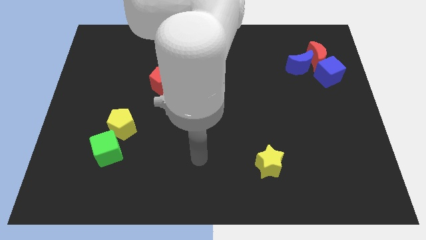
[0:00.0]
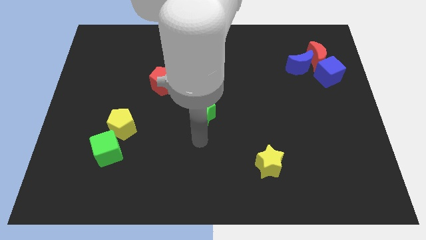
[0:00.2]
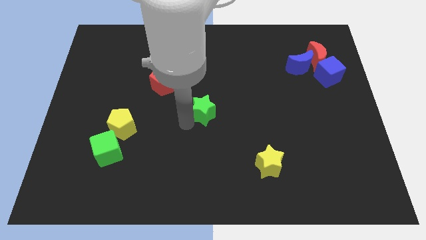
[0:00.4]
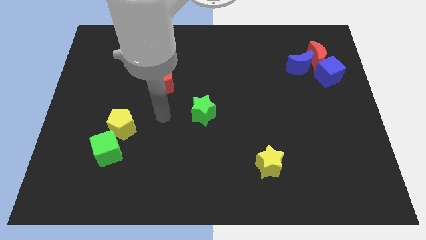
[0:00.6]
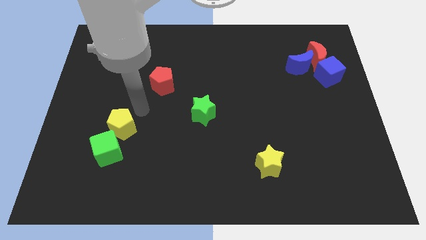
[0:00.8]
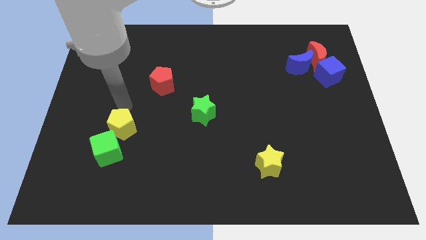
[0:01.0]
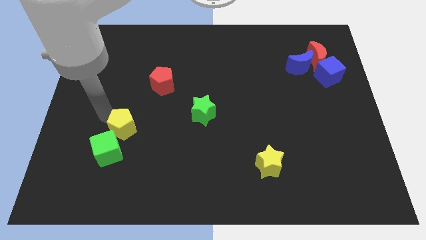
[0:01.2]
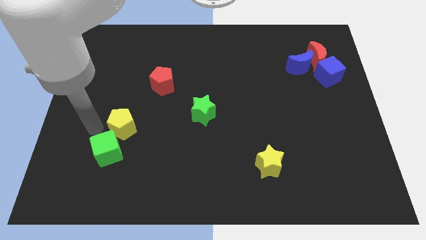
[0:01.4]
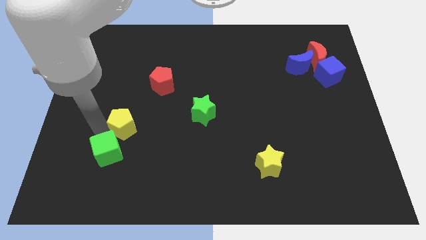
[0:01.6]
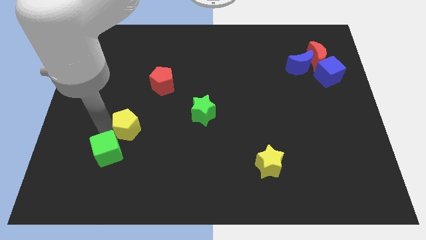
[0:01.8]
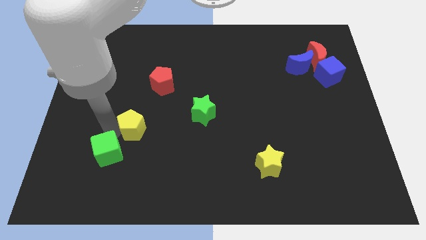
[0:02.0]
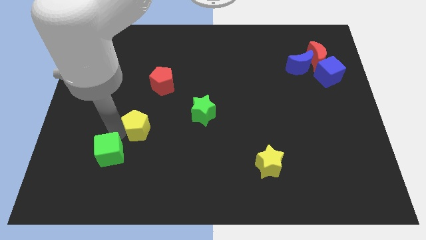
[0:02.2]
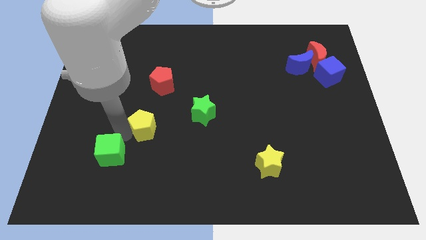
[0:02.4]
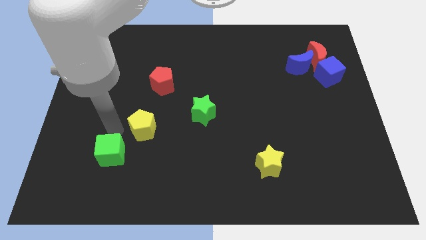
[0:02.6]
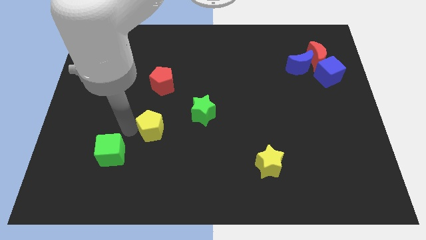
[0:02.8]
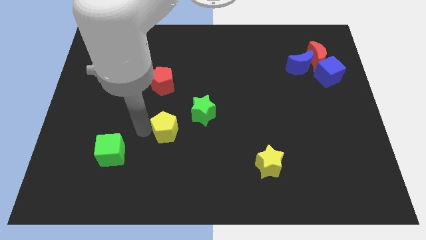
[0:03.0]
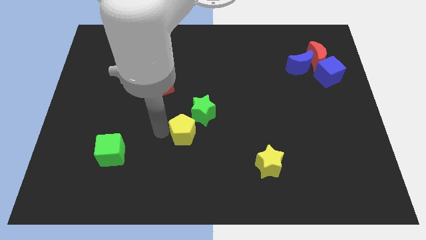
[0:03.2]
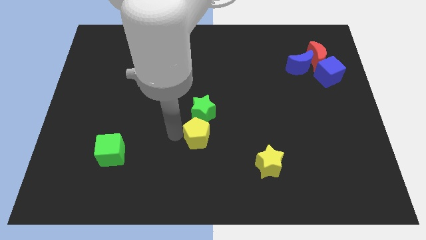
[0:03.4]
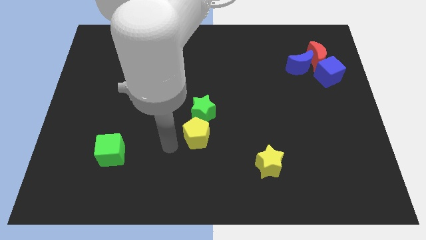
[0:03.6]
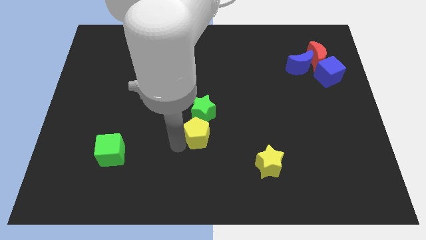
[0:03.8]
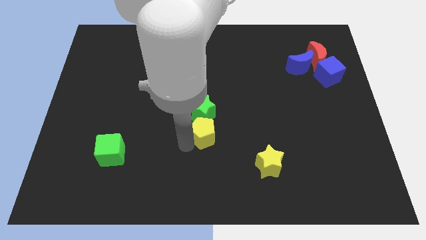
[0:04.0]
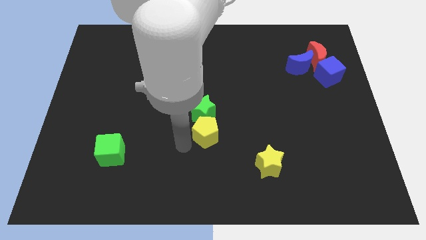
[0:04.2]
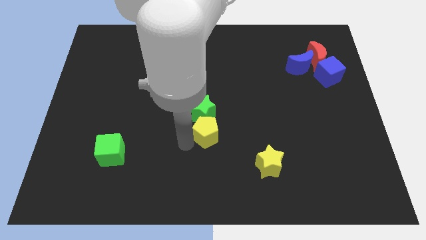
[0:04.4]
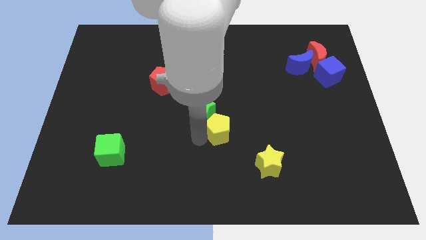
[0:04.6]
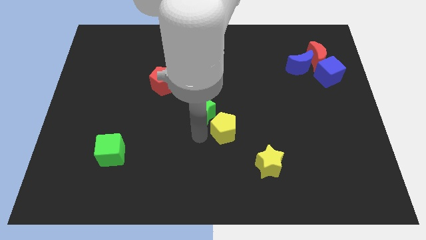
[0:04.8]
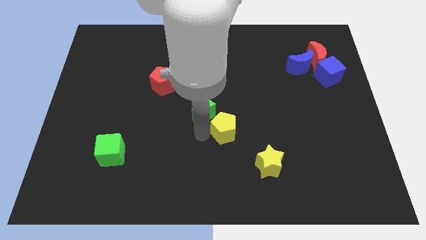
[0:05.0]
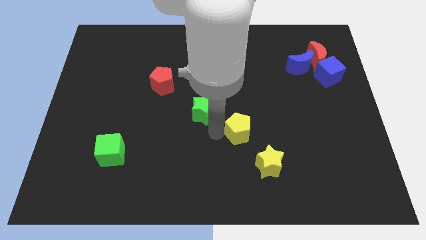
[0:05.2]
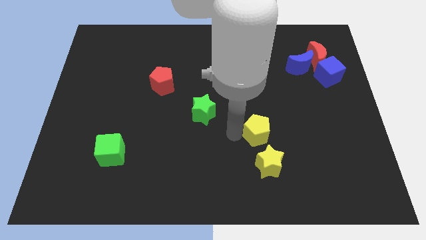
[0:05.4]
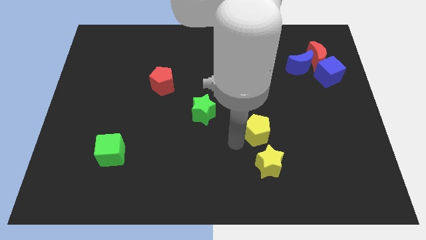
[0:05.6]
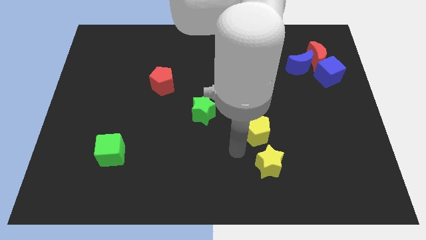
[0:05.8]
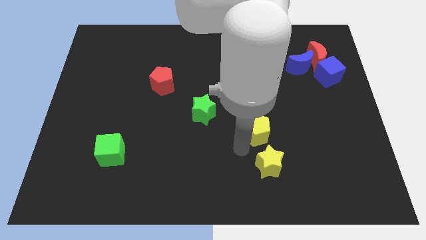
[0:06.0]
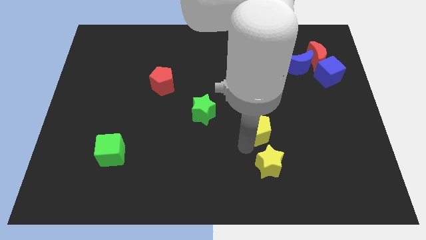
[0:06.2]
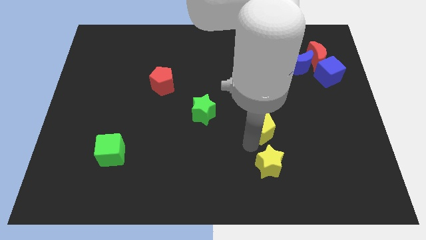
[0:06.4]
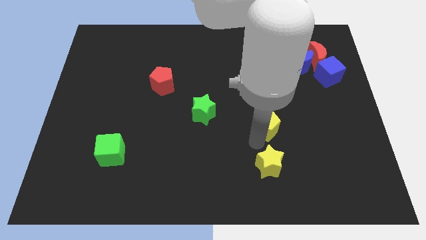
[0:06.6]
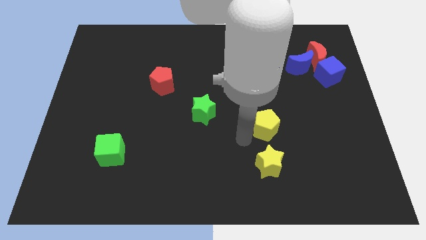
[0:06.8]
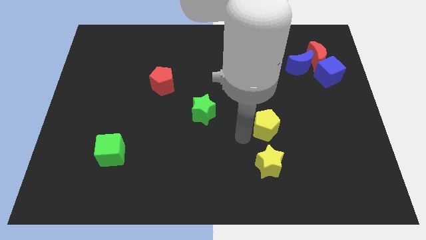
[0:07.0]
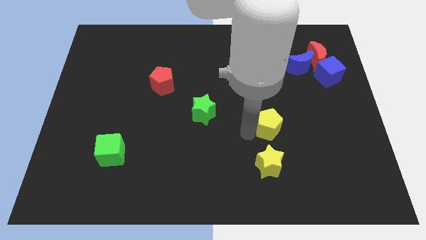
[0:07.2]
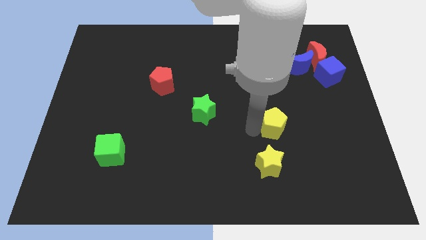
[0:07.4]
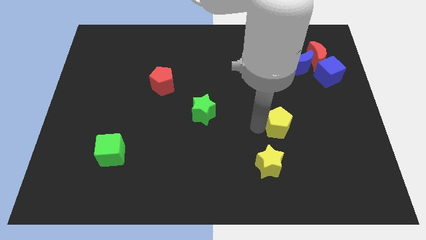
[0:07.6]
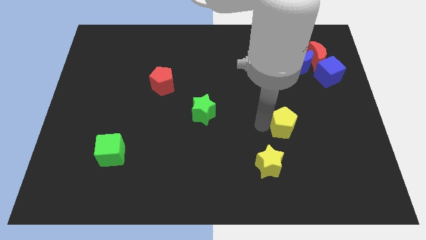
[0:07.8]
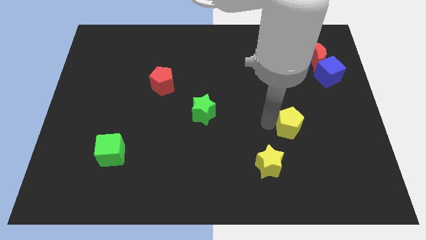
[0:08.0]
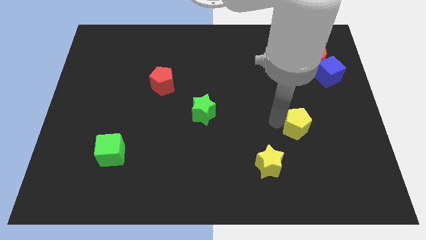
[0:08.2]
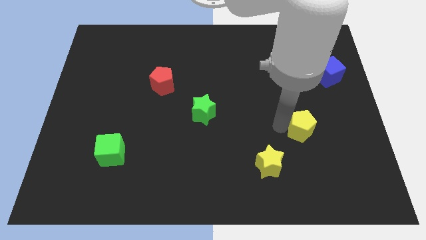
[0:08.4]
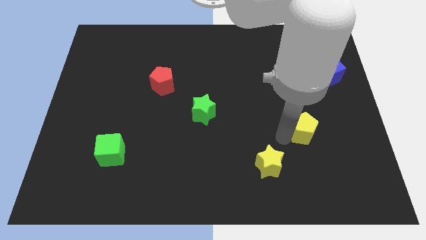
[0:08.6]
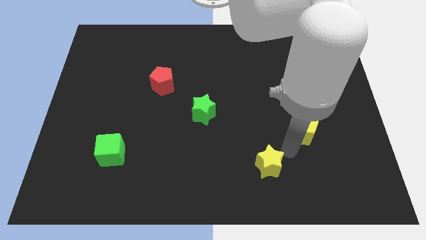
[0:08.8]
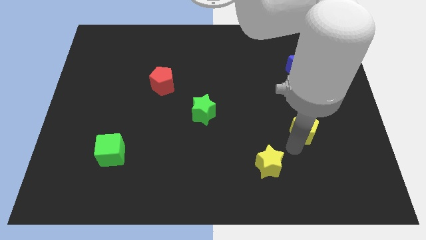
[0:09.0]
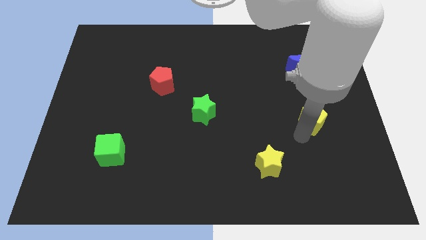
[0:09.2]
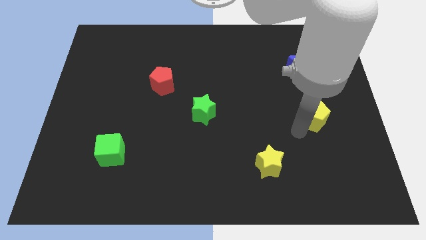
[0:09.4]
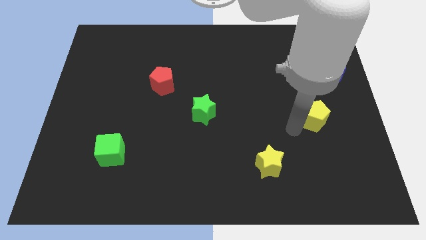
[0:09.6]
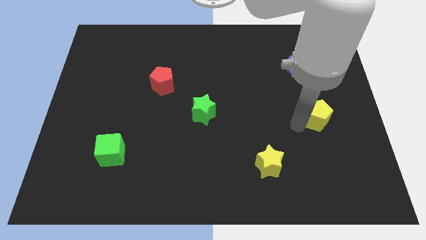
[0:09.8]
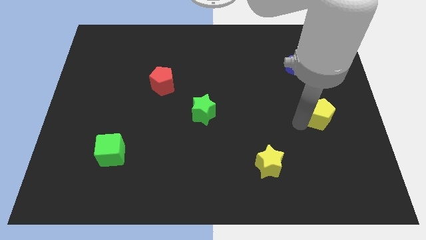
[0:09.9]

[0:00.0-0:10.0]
put the yellow pentagon to the bottom of the blue cube

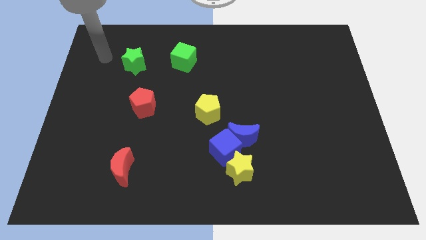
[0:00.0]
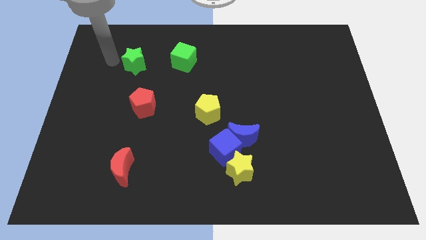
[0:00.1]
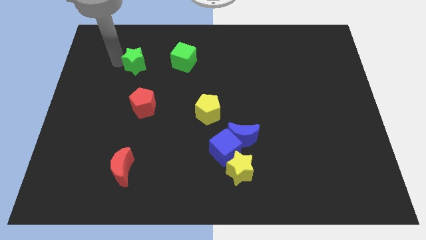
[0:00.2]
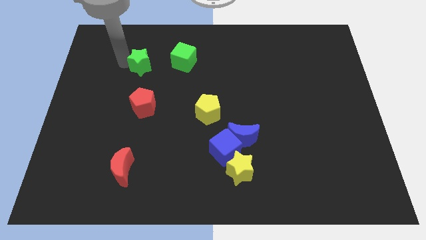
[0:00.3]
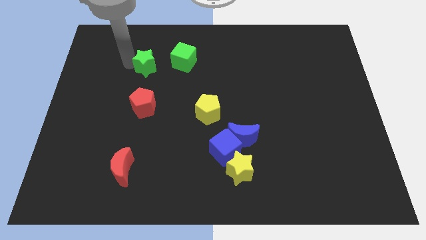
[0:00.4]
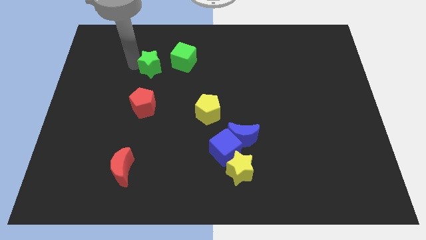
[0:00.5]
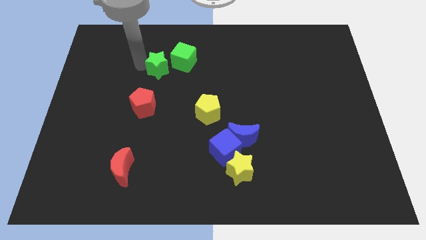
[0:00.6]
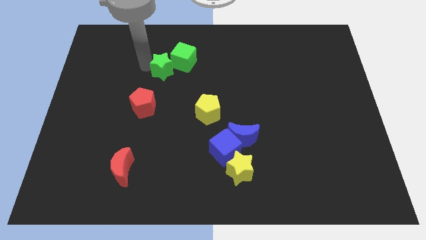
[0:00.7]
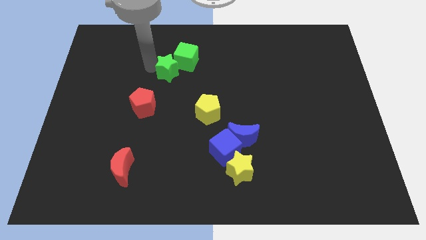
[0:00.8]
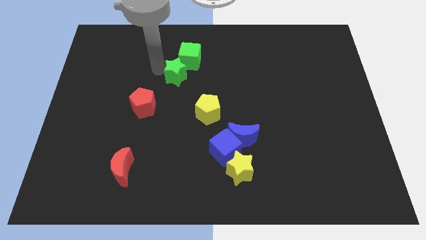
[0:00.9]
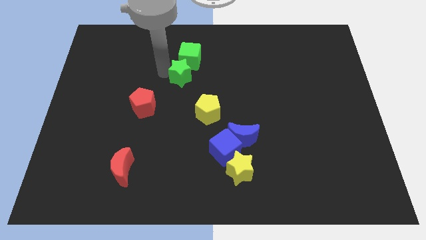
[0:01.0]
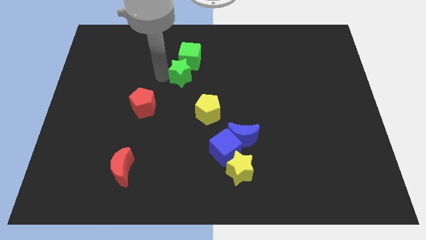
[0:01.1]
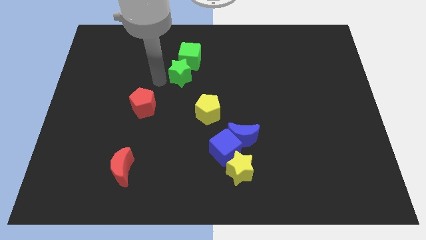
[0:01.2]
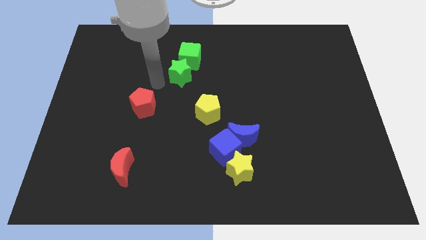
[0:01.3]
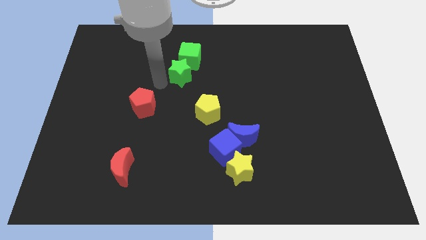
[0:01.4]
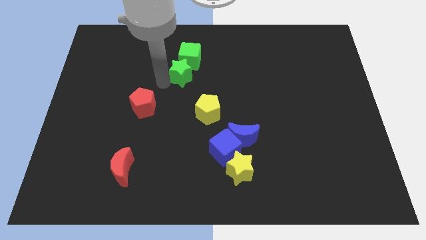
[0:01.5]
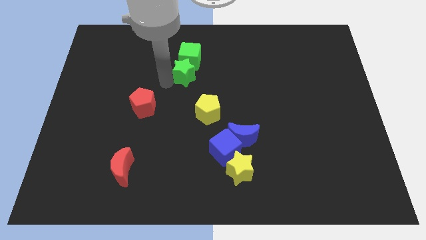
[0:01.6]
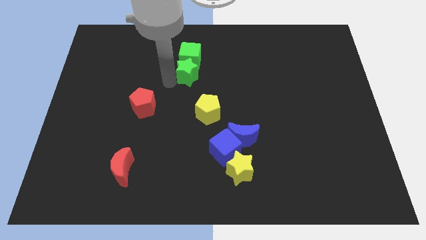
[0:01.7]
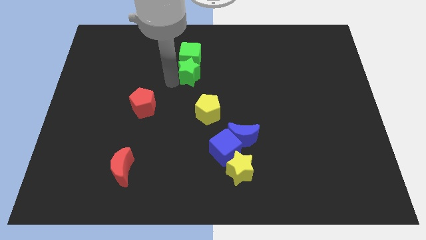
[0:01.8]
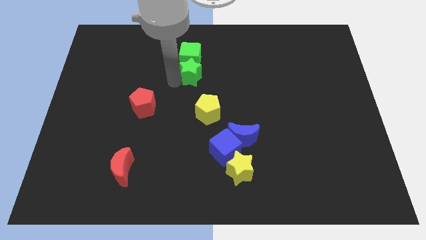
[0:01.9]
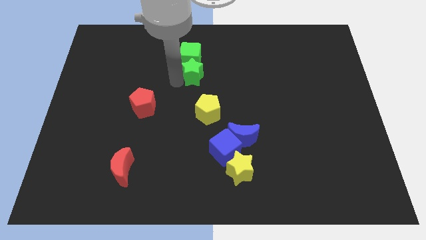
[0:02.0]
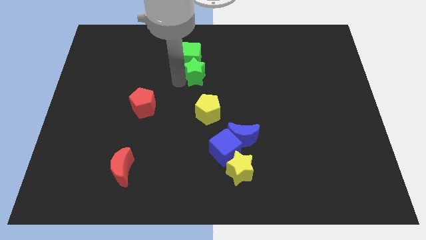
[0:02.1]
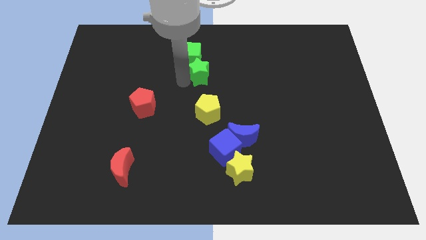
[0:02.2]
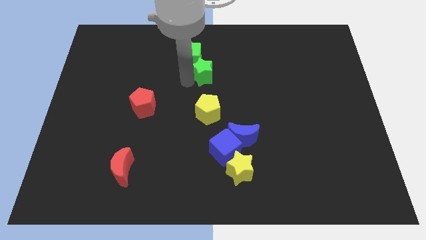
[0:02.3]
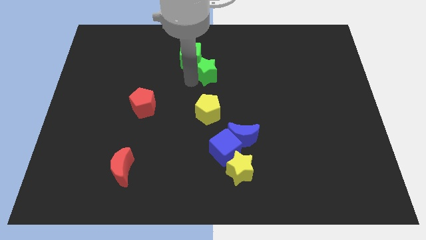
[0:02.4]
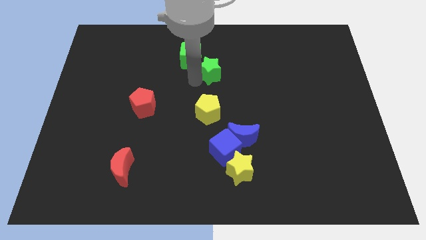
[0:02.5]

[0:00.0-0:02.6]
push the green star just right of the green cube

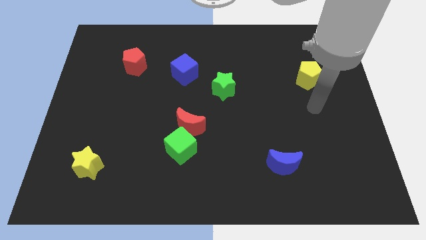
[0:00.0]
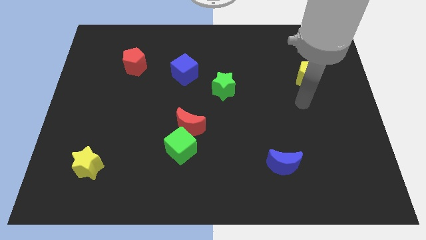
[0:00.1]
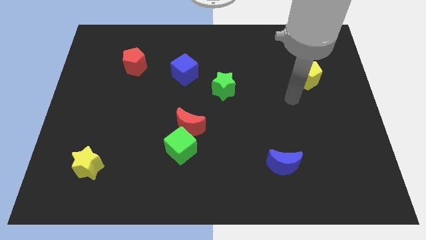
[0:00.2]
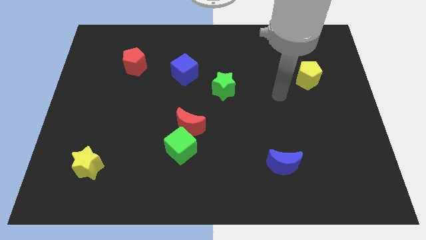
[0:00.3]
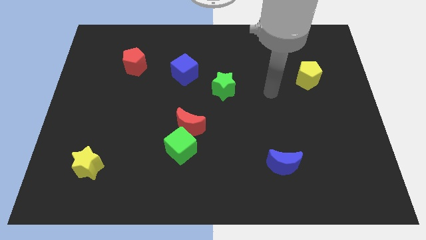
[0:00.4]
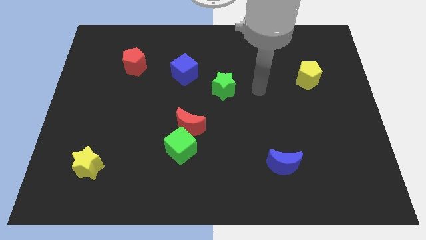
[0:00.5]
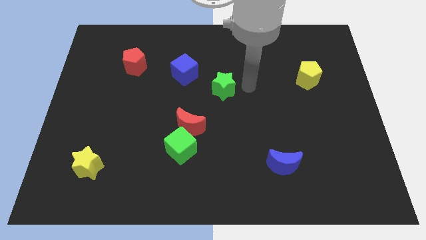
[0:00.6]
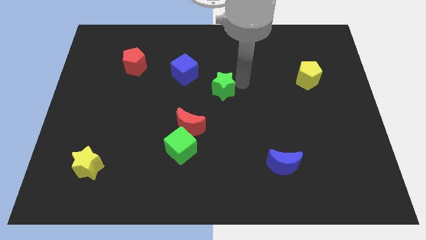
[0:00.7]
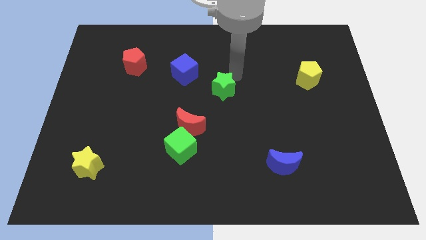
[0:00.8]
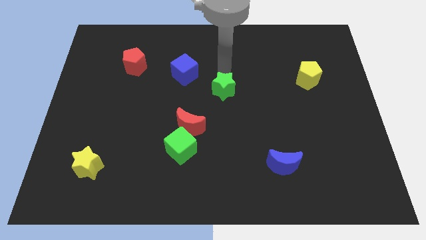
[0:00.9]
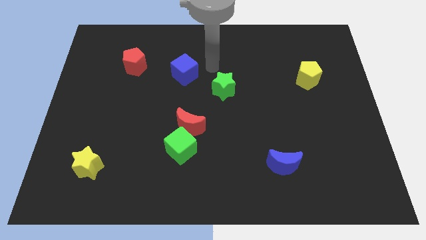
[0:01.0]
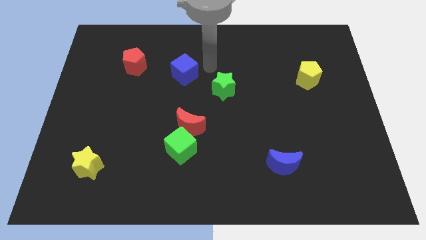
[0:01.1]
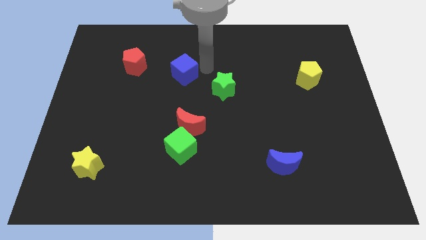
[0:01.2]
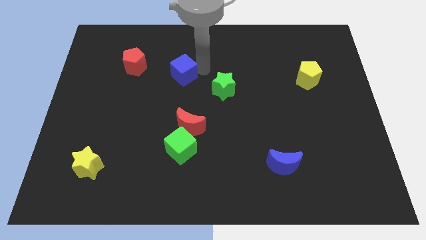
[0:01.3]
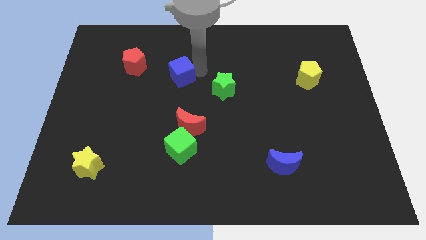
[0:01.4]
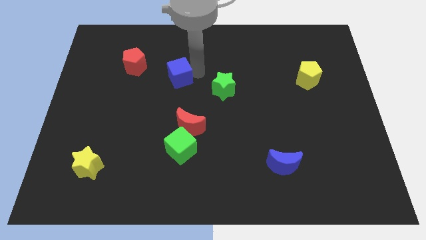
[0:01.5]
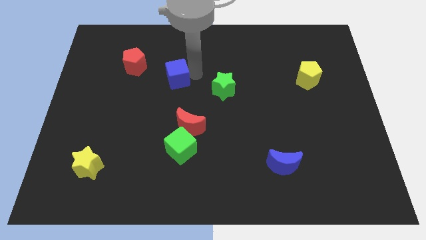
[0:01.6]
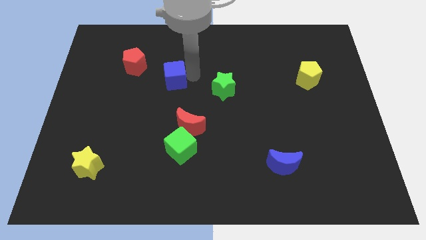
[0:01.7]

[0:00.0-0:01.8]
slide the blue cube to the bottom right side of the red pentagon
